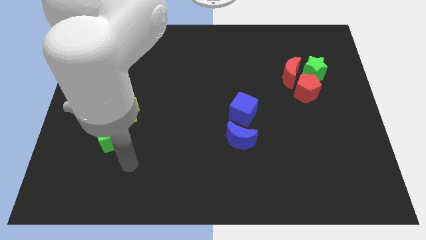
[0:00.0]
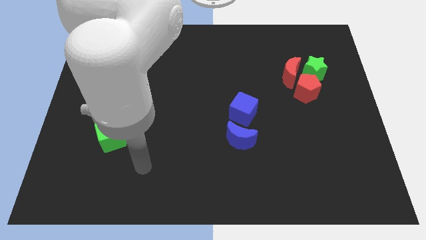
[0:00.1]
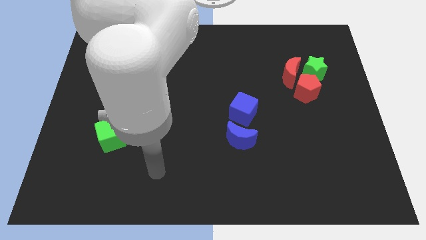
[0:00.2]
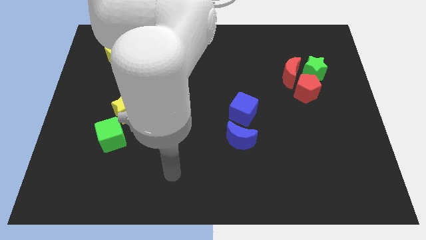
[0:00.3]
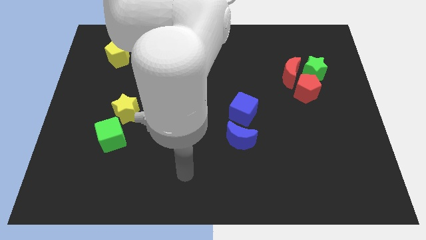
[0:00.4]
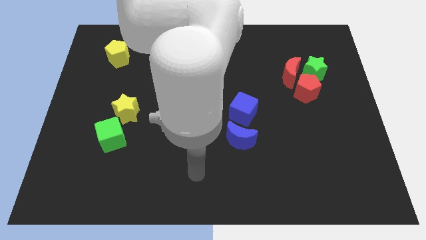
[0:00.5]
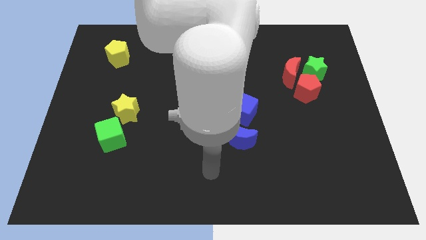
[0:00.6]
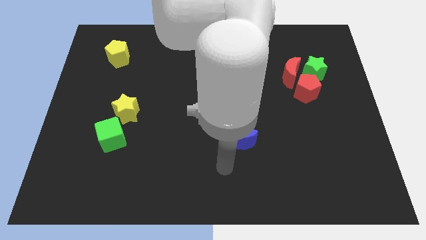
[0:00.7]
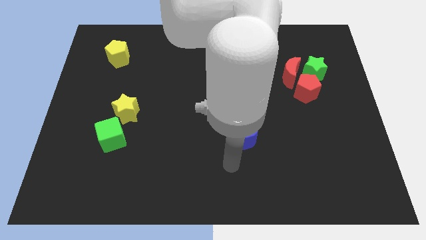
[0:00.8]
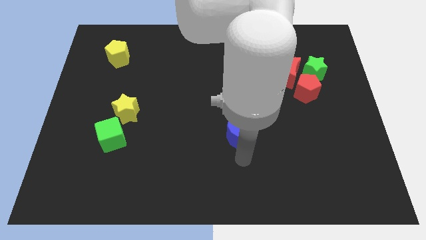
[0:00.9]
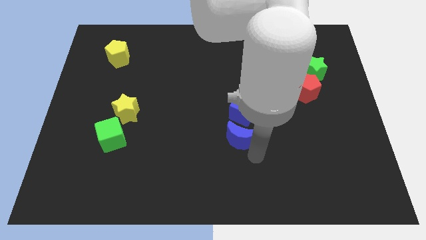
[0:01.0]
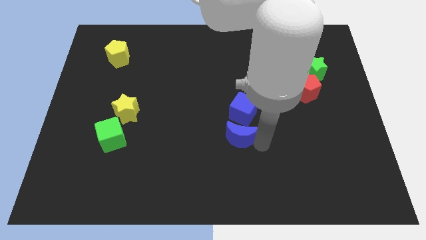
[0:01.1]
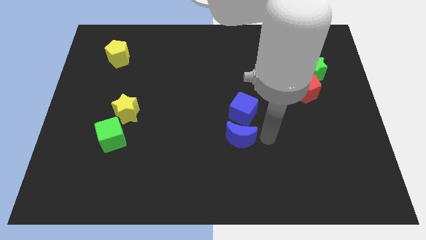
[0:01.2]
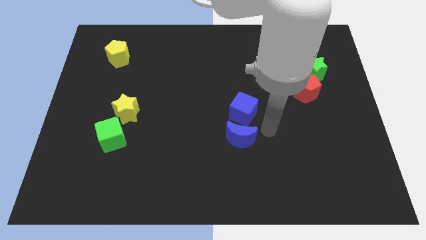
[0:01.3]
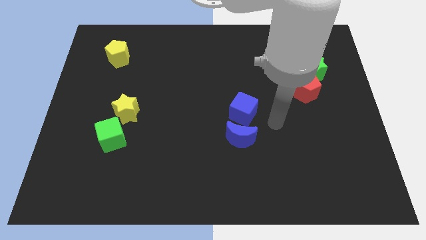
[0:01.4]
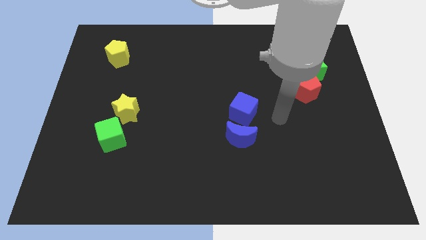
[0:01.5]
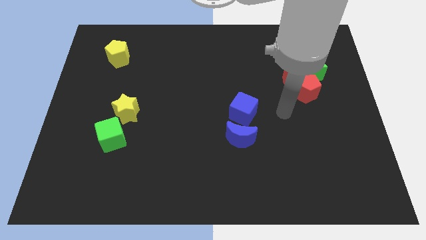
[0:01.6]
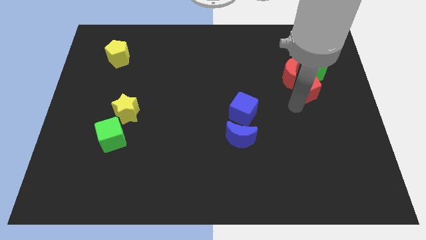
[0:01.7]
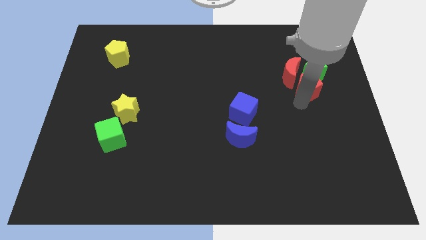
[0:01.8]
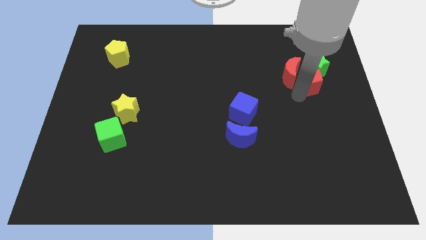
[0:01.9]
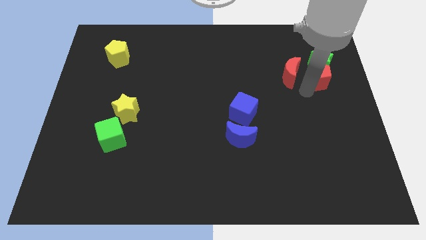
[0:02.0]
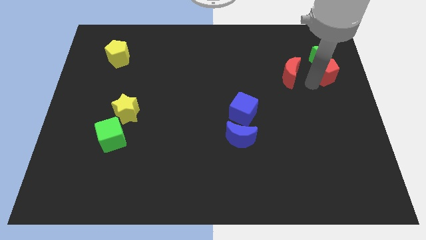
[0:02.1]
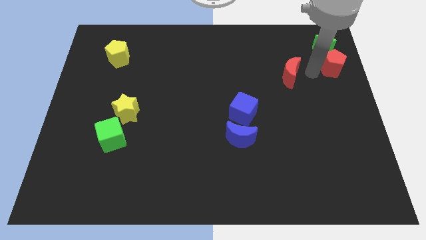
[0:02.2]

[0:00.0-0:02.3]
move the red moon away from the red pentagon and green star

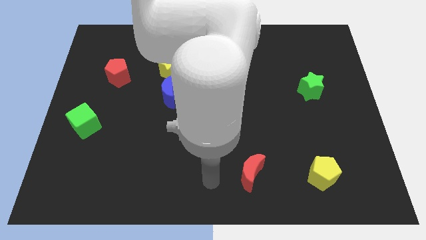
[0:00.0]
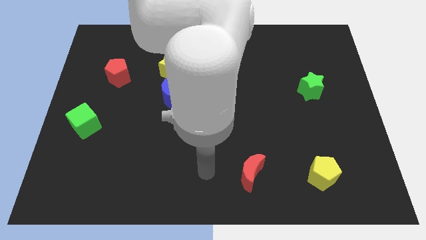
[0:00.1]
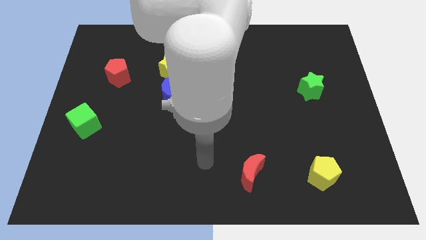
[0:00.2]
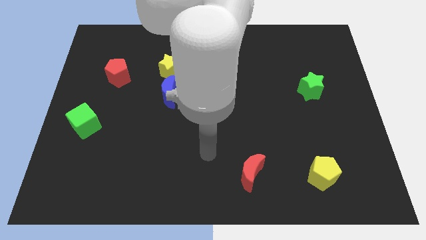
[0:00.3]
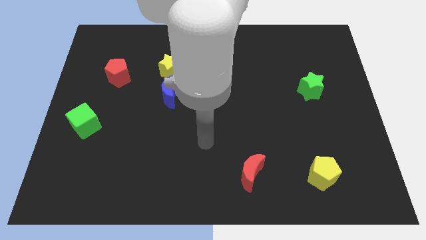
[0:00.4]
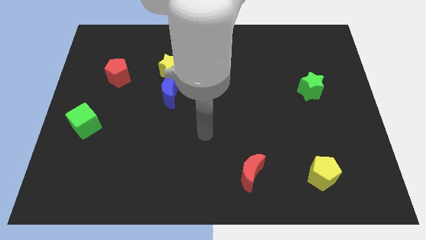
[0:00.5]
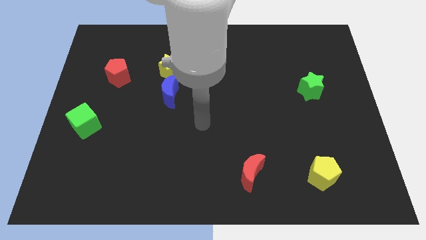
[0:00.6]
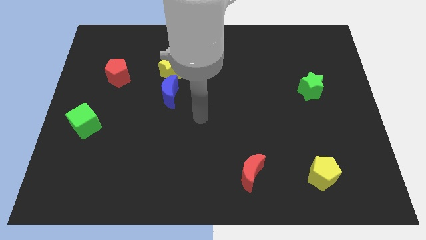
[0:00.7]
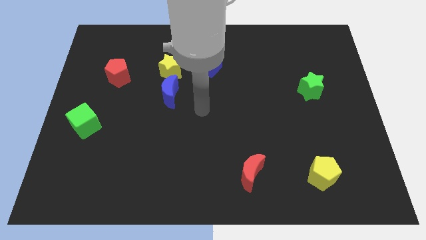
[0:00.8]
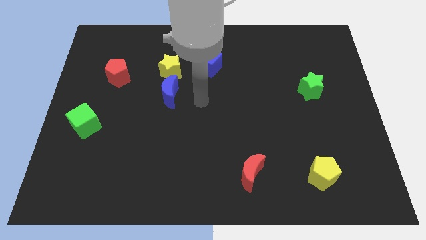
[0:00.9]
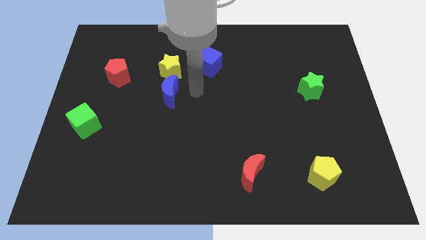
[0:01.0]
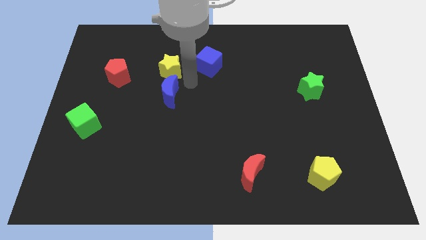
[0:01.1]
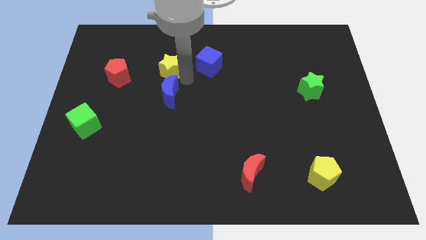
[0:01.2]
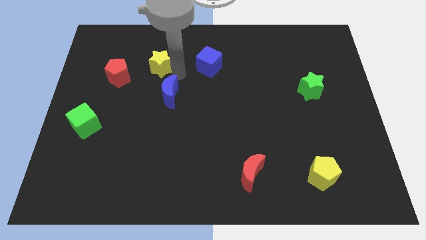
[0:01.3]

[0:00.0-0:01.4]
move the blue moon away from the yellow star

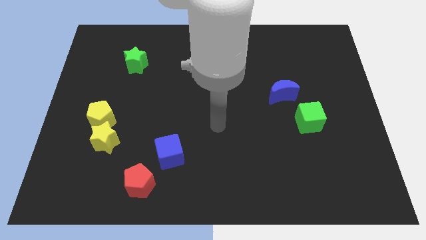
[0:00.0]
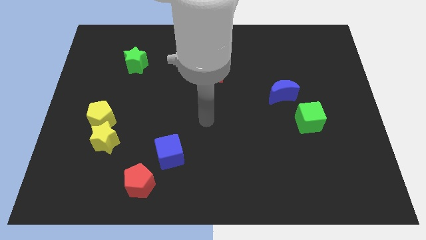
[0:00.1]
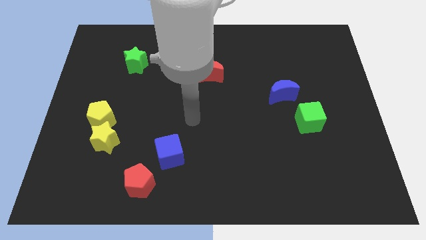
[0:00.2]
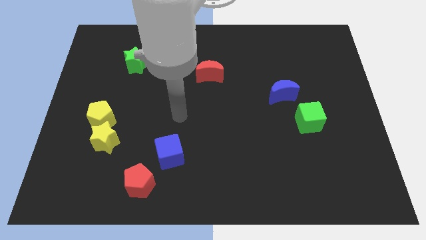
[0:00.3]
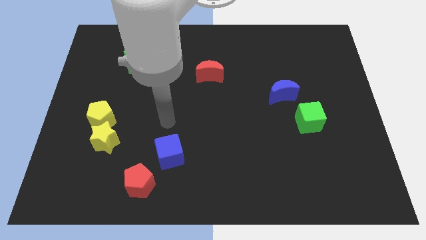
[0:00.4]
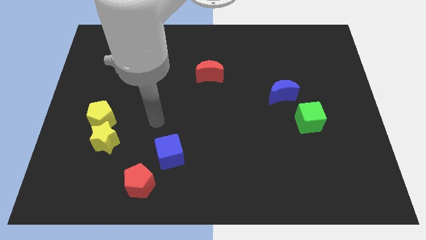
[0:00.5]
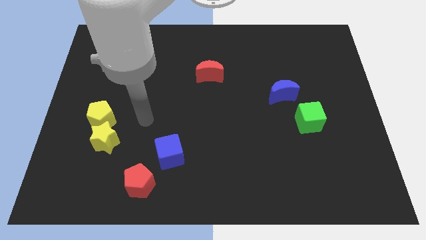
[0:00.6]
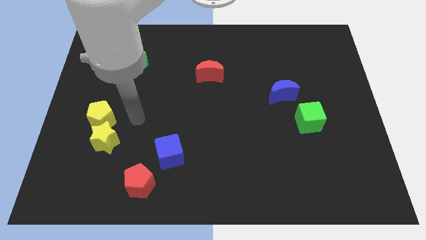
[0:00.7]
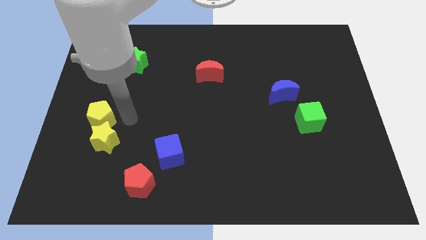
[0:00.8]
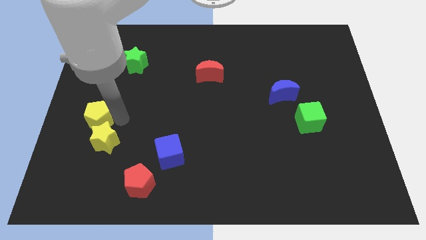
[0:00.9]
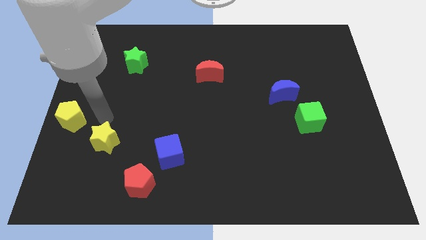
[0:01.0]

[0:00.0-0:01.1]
move the yellow star away from the yellow pentagon

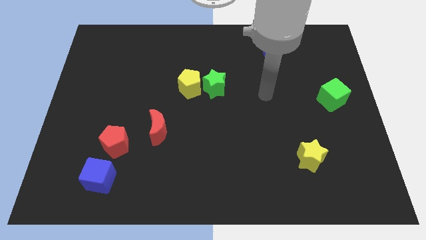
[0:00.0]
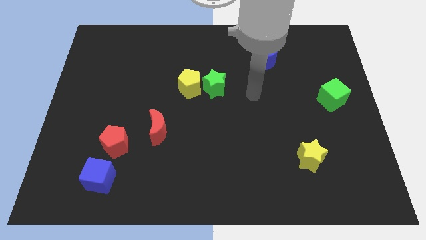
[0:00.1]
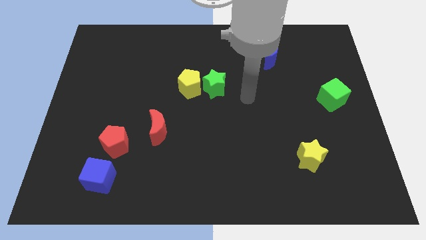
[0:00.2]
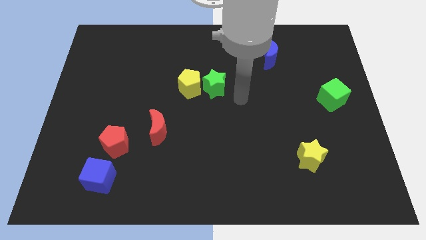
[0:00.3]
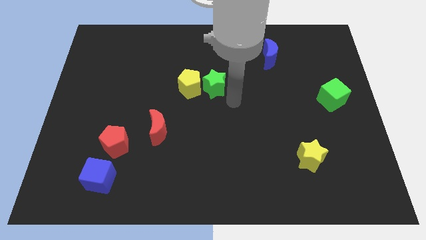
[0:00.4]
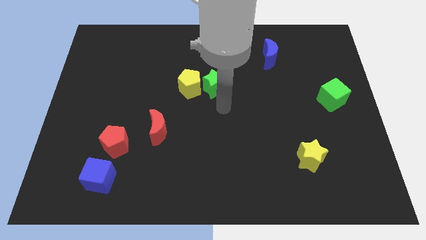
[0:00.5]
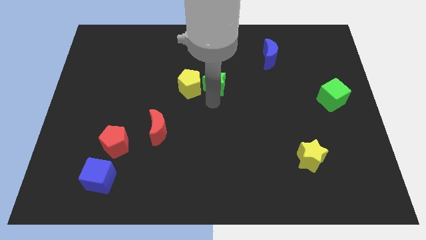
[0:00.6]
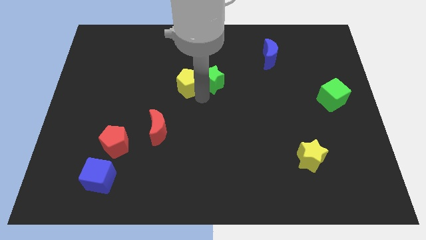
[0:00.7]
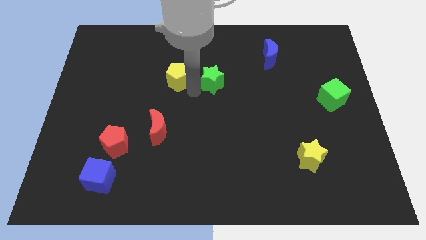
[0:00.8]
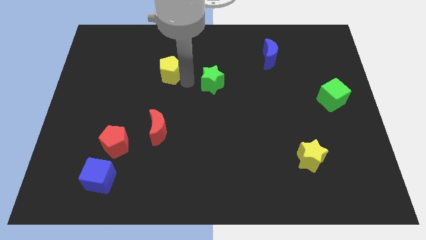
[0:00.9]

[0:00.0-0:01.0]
pull the green star apart from the yellow pentagon

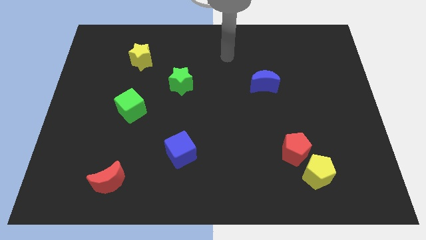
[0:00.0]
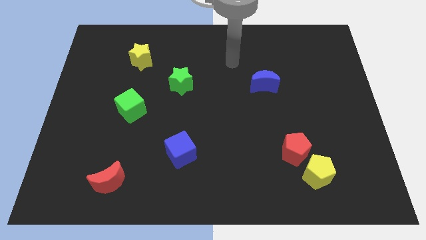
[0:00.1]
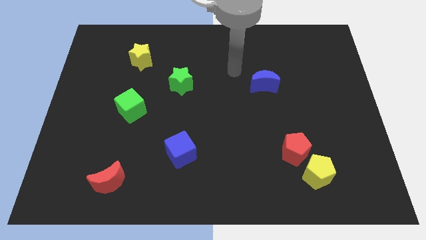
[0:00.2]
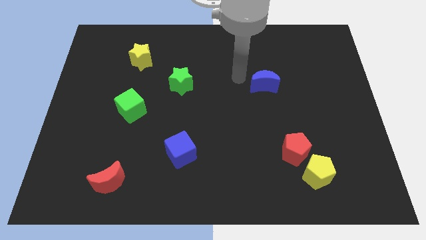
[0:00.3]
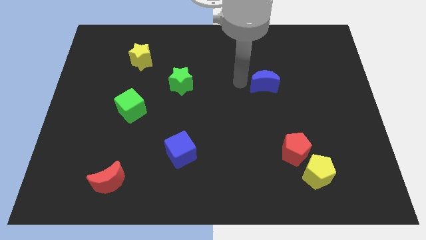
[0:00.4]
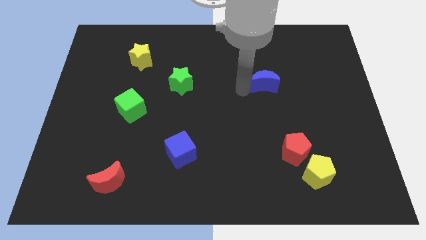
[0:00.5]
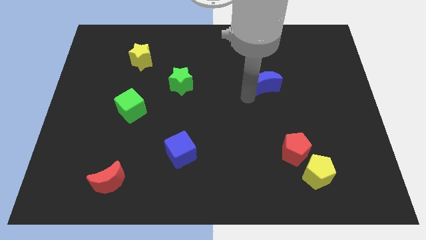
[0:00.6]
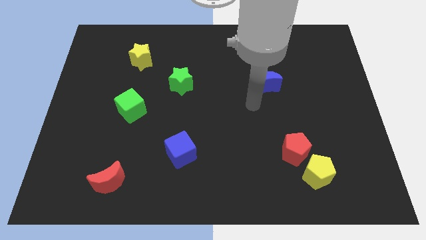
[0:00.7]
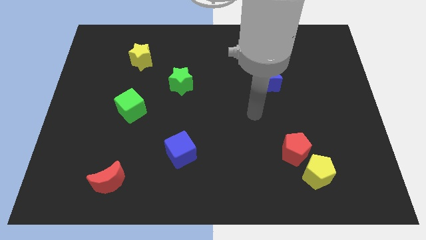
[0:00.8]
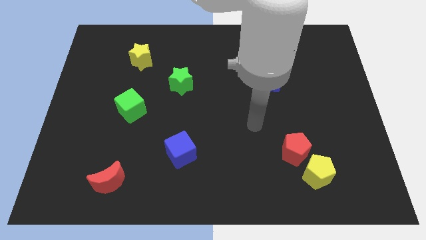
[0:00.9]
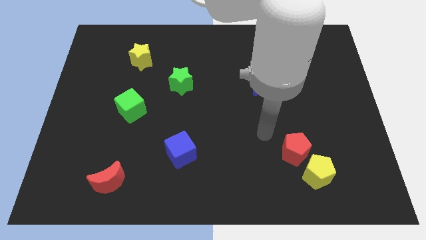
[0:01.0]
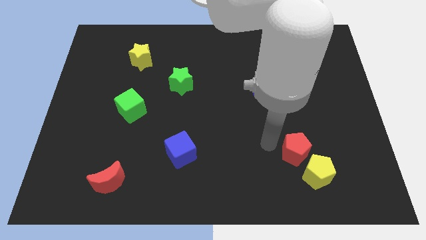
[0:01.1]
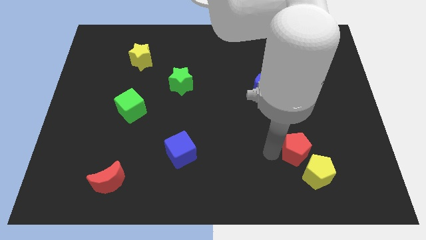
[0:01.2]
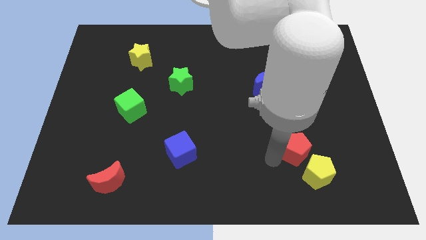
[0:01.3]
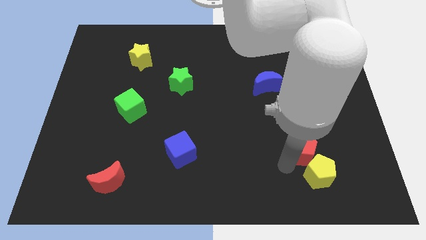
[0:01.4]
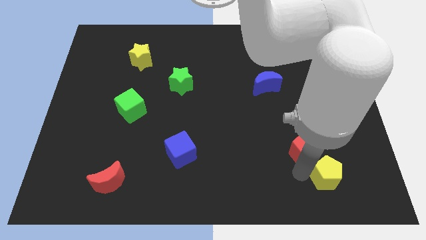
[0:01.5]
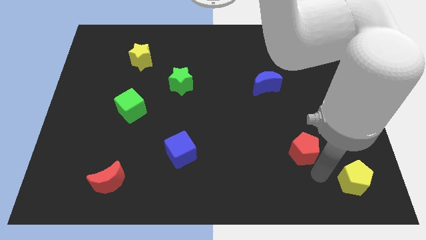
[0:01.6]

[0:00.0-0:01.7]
move the red pentagon away from the yellow pentagon

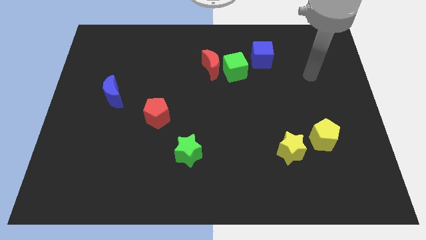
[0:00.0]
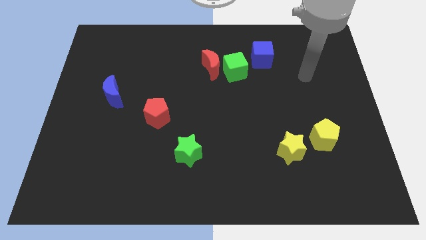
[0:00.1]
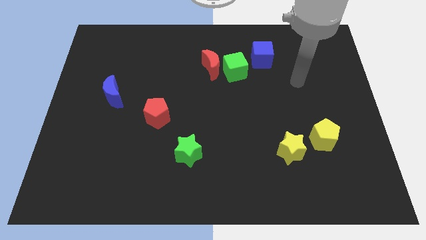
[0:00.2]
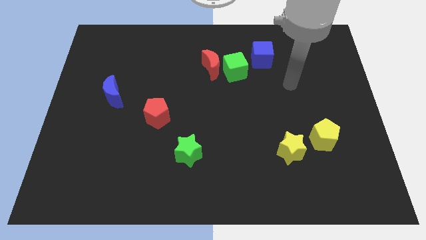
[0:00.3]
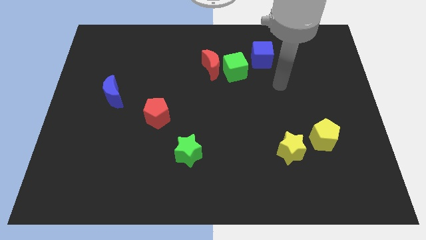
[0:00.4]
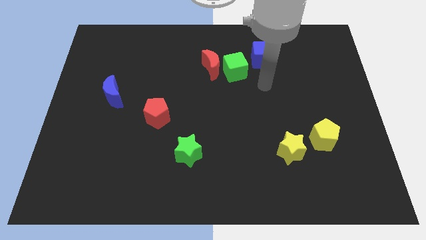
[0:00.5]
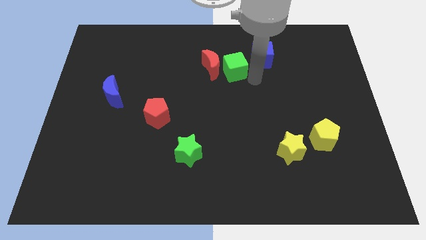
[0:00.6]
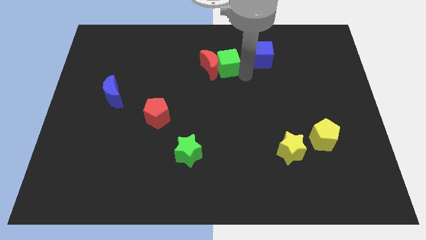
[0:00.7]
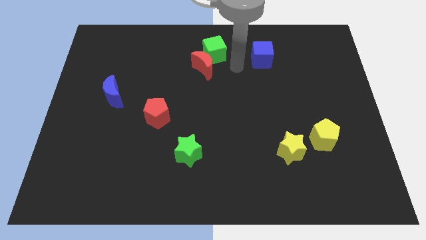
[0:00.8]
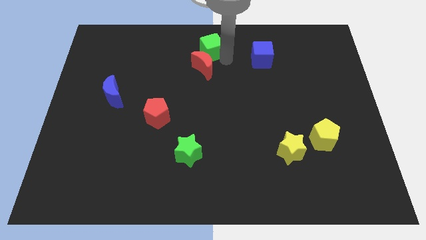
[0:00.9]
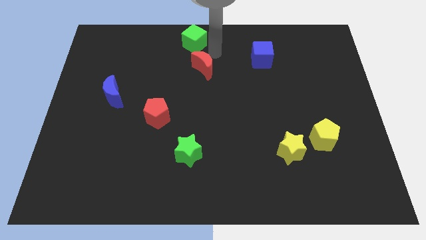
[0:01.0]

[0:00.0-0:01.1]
separate the red moon from the green cube

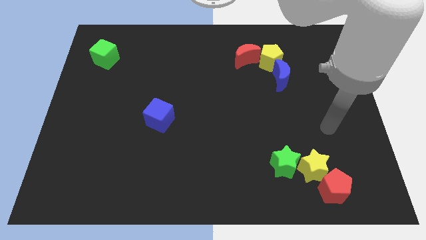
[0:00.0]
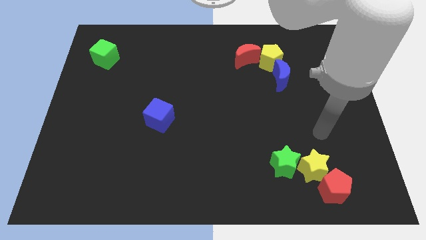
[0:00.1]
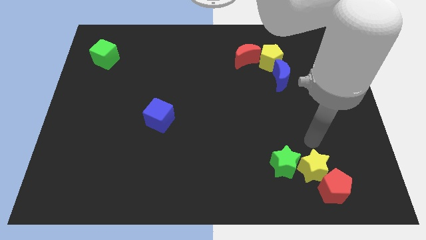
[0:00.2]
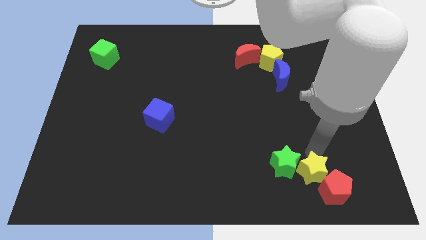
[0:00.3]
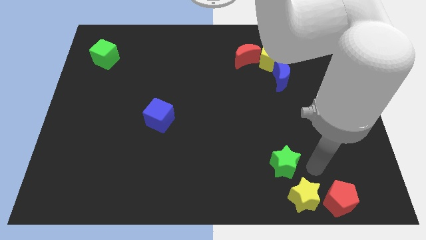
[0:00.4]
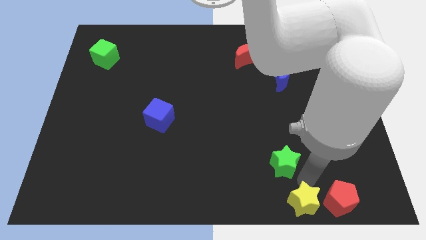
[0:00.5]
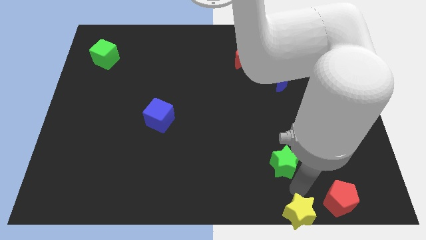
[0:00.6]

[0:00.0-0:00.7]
pull the green star apart from the yellow star

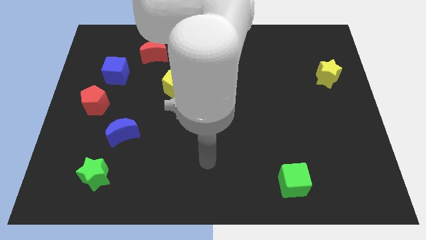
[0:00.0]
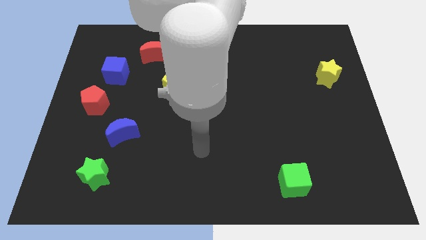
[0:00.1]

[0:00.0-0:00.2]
pull the red pentagon apart from the blue cube
